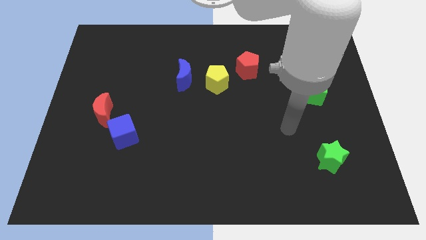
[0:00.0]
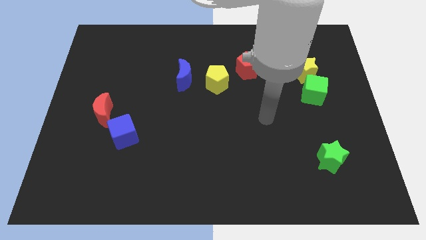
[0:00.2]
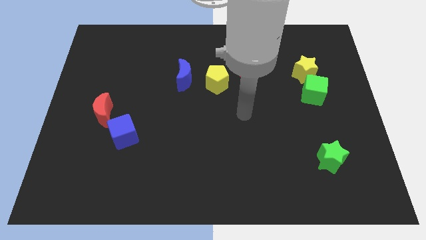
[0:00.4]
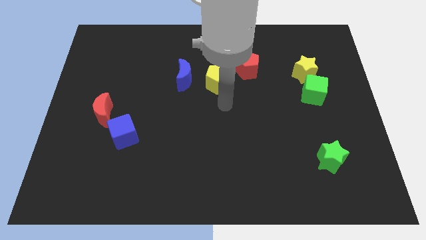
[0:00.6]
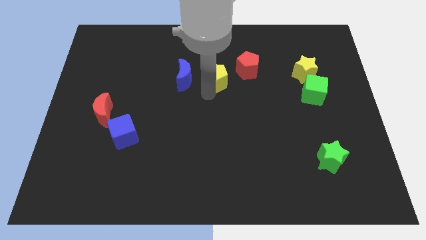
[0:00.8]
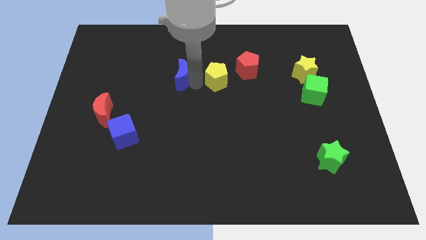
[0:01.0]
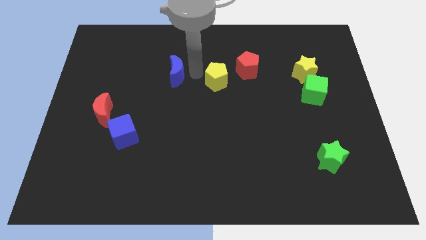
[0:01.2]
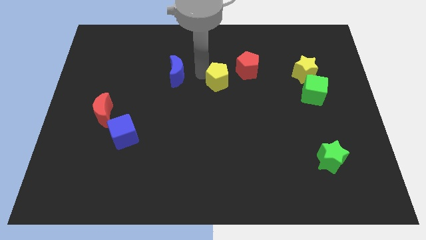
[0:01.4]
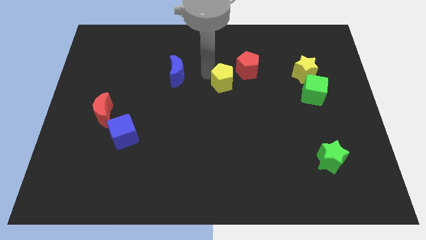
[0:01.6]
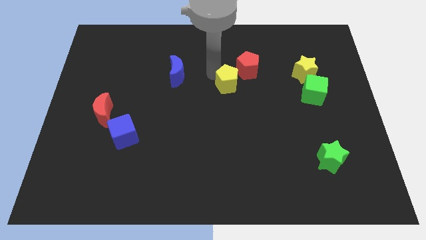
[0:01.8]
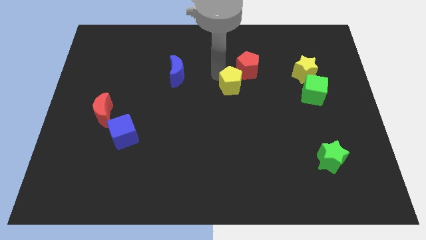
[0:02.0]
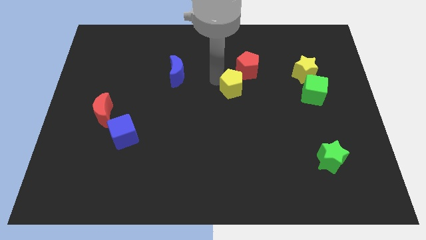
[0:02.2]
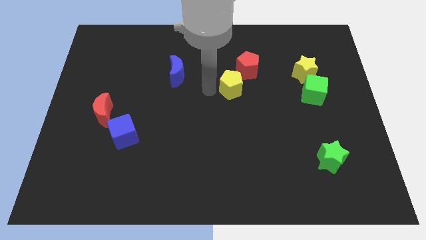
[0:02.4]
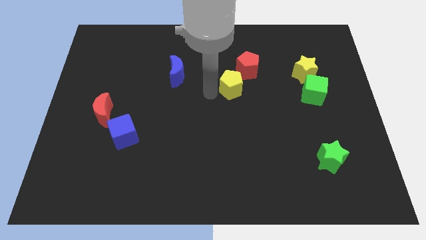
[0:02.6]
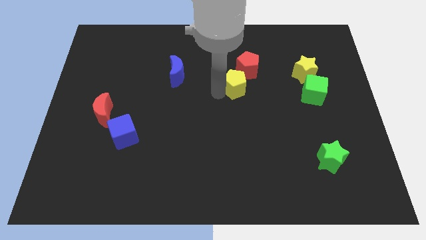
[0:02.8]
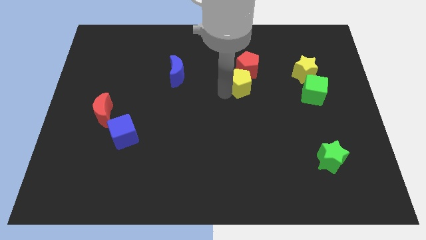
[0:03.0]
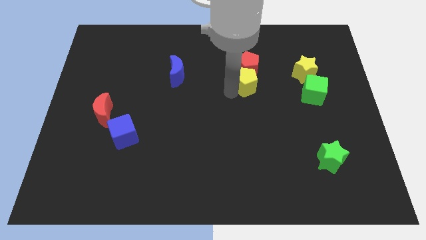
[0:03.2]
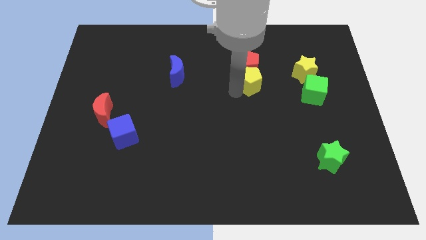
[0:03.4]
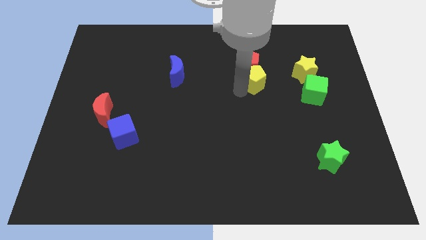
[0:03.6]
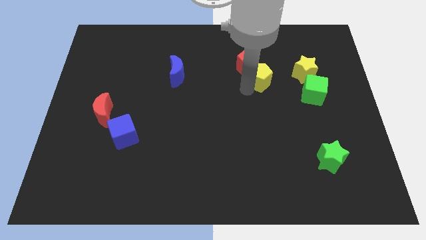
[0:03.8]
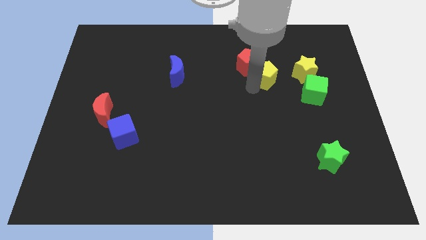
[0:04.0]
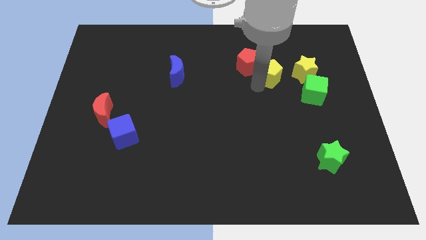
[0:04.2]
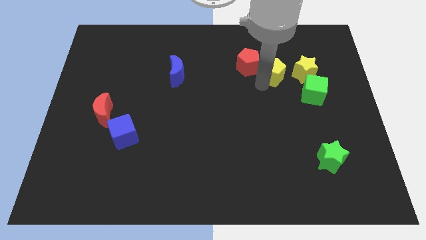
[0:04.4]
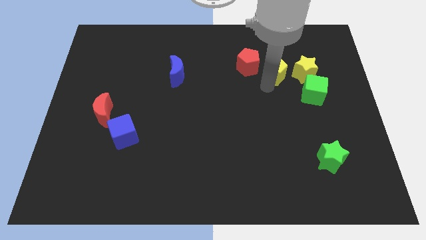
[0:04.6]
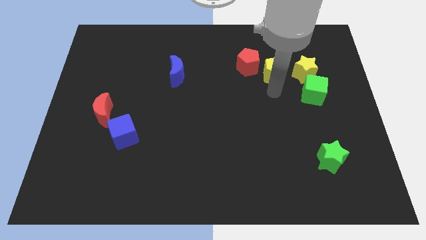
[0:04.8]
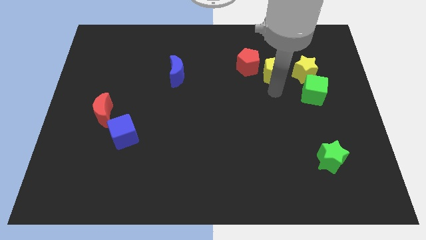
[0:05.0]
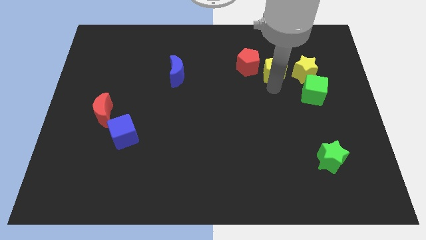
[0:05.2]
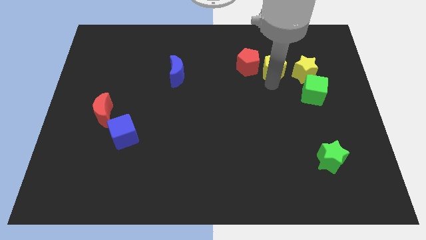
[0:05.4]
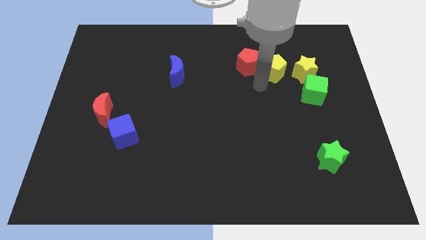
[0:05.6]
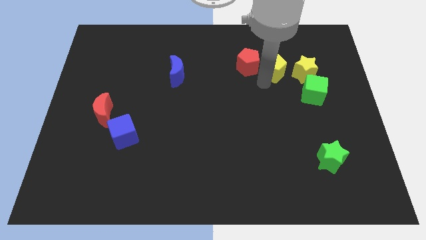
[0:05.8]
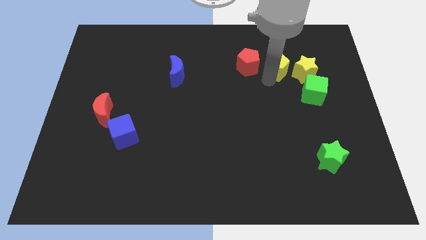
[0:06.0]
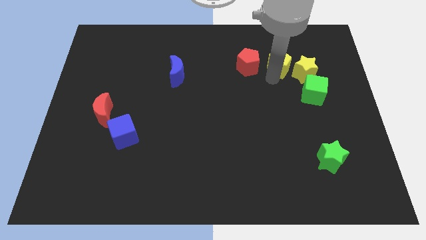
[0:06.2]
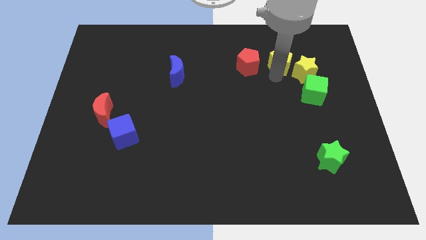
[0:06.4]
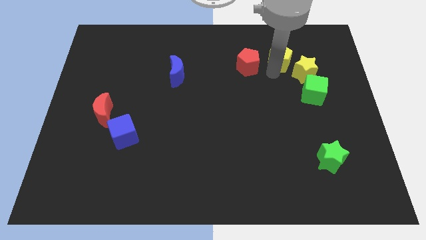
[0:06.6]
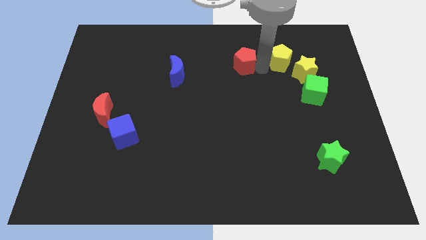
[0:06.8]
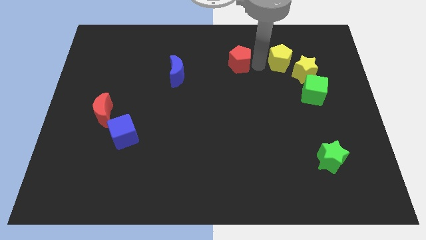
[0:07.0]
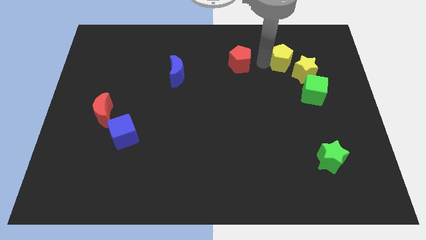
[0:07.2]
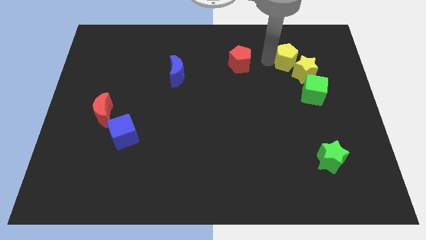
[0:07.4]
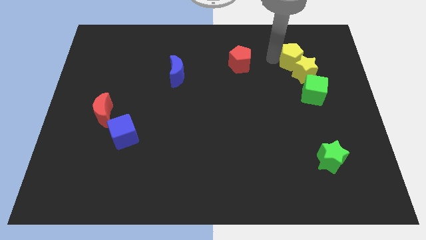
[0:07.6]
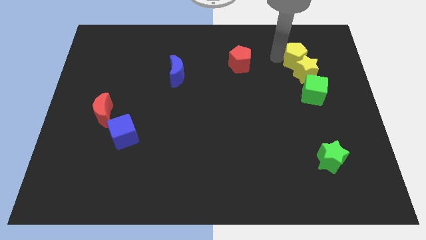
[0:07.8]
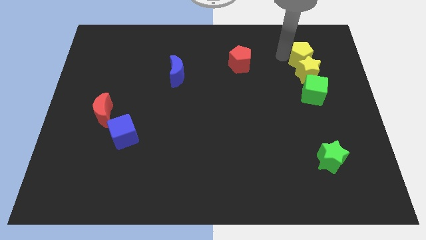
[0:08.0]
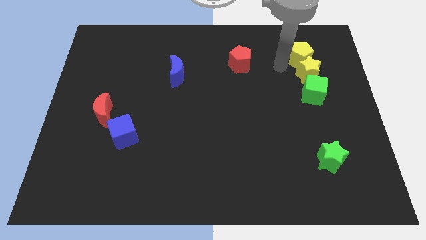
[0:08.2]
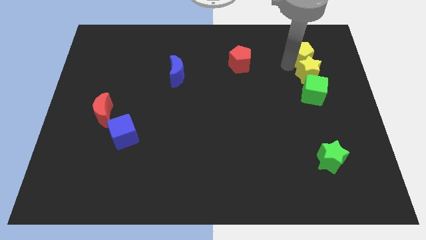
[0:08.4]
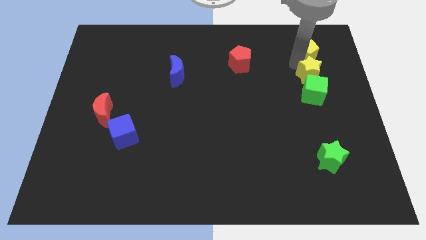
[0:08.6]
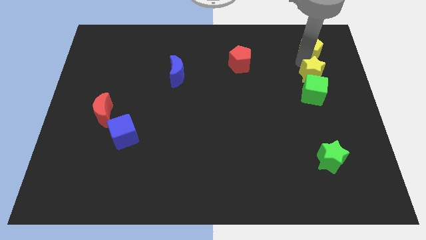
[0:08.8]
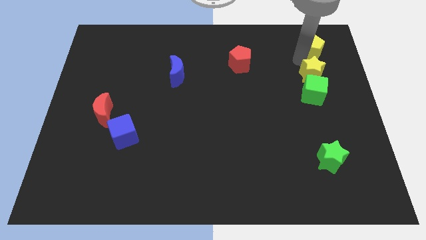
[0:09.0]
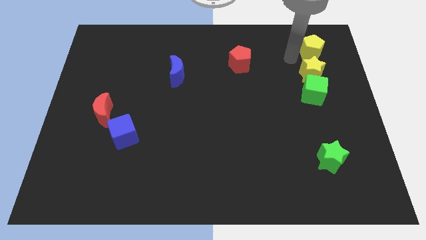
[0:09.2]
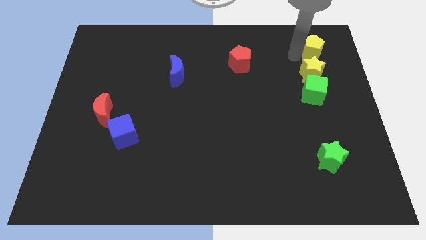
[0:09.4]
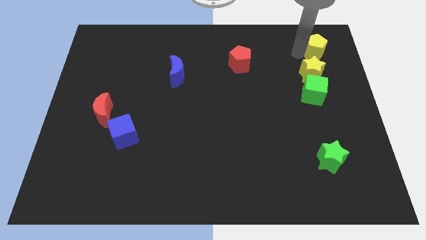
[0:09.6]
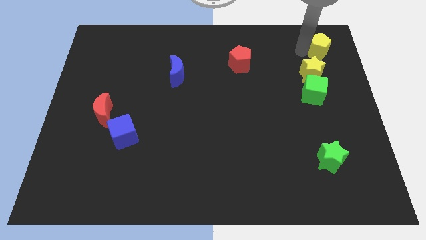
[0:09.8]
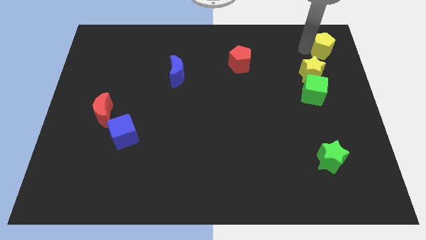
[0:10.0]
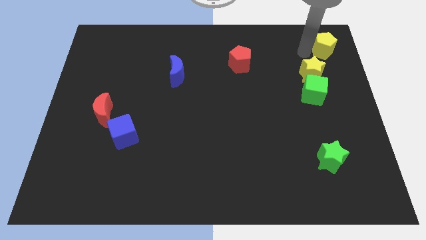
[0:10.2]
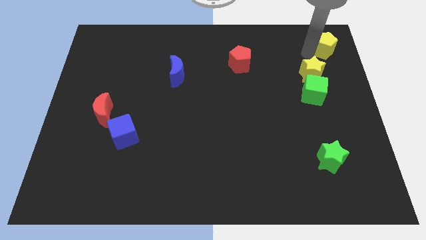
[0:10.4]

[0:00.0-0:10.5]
slide the yellow pentagon to the upper right corner

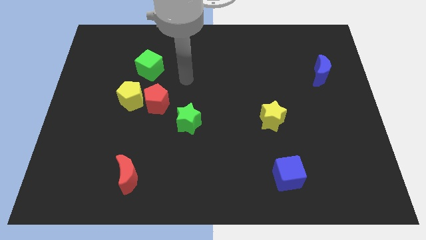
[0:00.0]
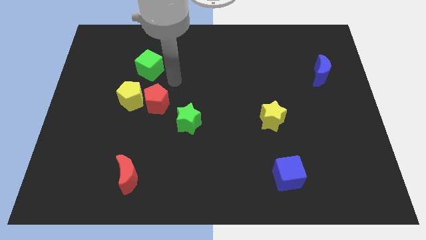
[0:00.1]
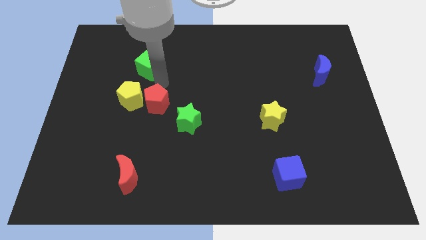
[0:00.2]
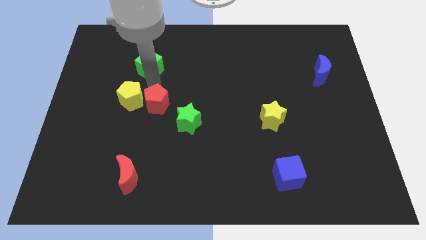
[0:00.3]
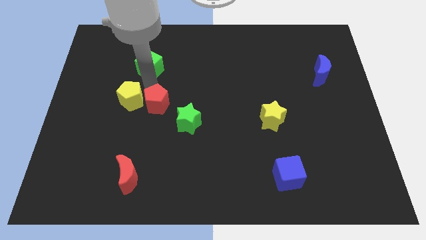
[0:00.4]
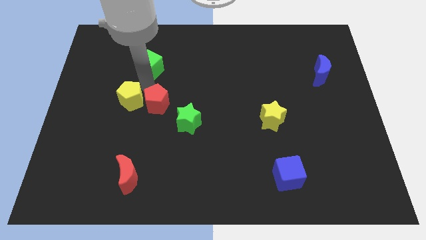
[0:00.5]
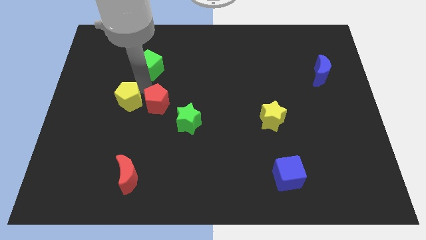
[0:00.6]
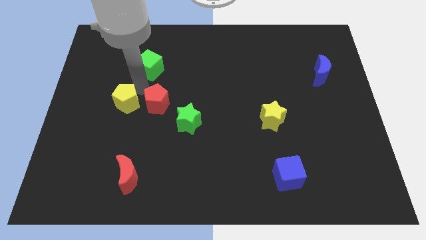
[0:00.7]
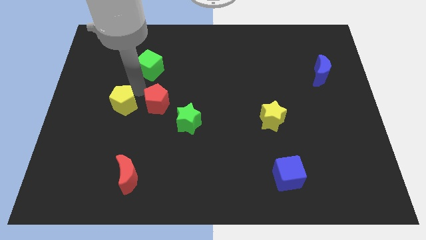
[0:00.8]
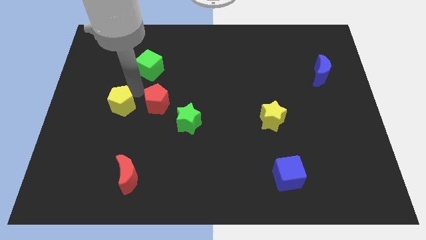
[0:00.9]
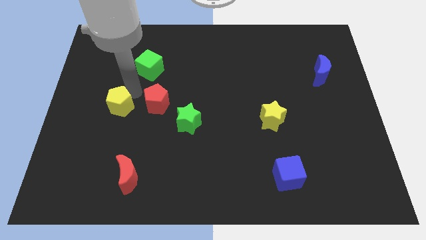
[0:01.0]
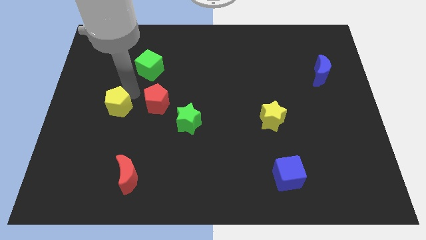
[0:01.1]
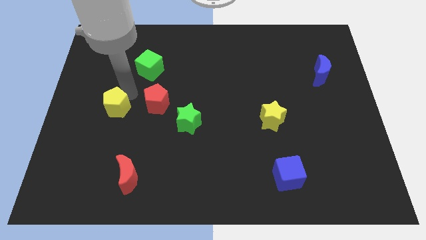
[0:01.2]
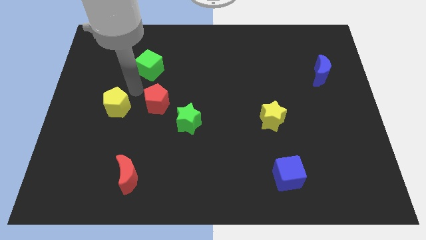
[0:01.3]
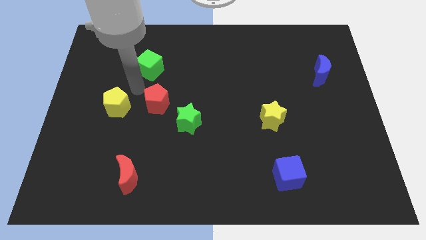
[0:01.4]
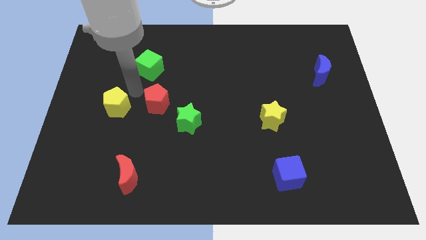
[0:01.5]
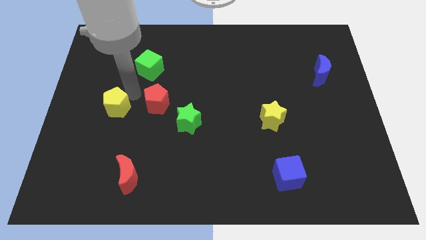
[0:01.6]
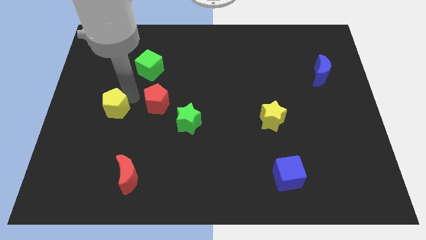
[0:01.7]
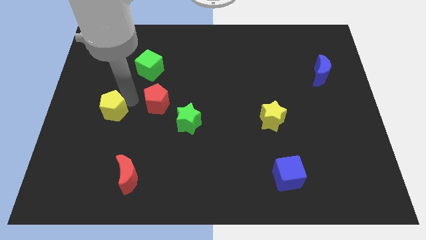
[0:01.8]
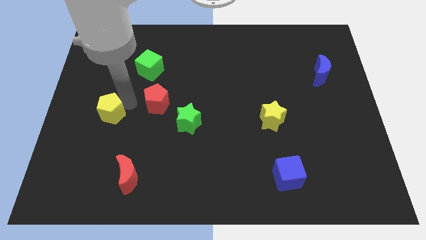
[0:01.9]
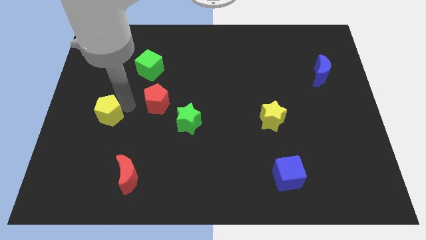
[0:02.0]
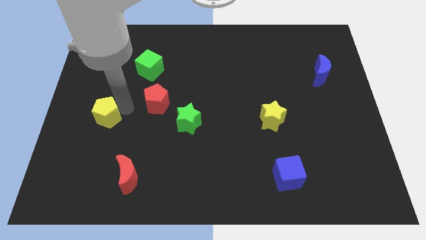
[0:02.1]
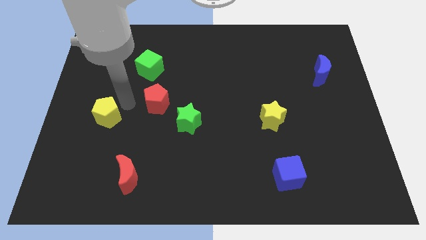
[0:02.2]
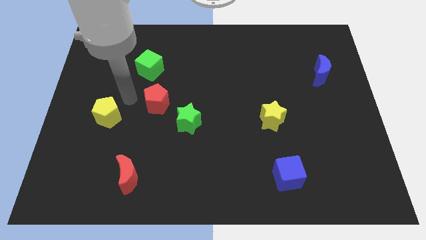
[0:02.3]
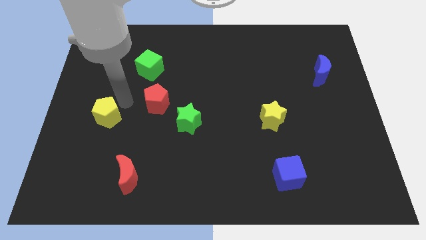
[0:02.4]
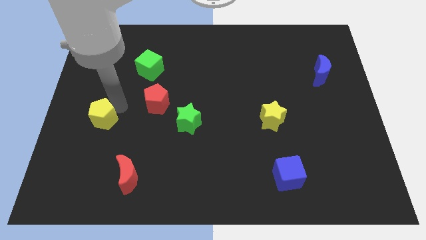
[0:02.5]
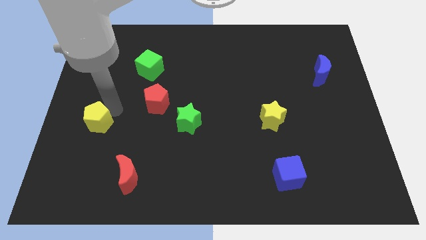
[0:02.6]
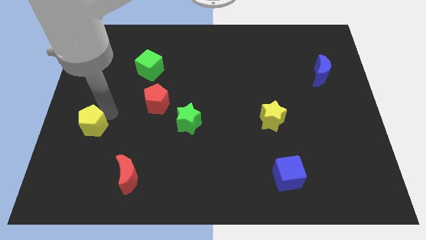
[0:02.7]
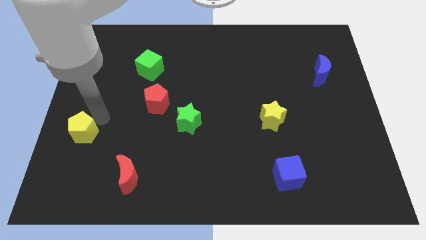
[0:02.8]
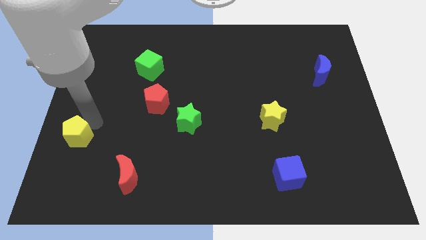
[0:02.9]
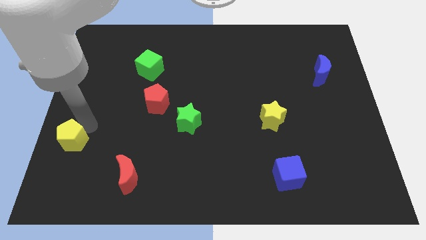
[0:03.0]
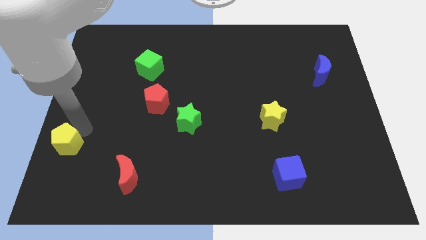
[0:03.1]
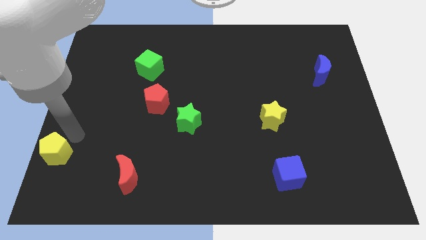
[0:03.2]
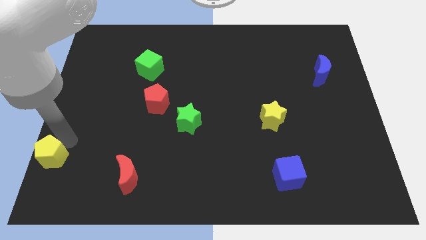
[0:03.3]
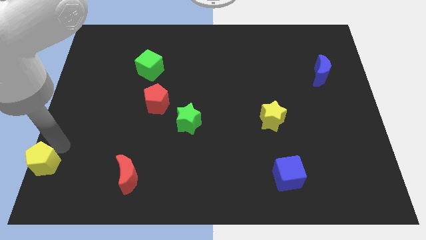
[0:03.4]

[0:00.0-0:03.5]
move the yellow pentagon to the bottom left corner
